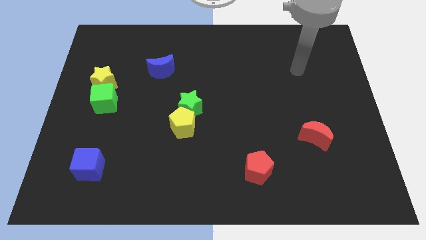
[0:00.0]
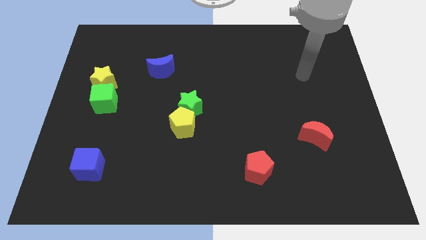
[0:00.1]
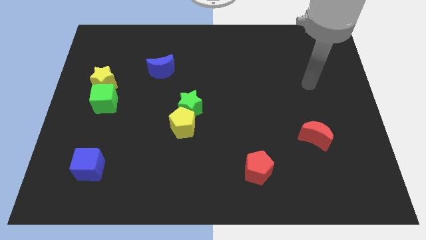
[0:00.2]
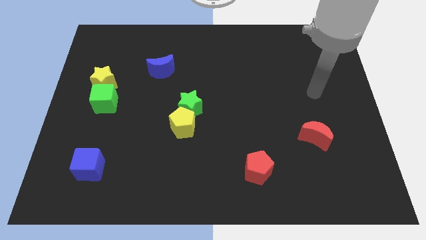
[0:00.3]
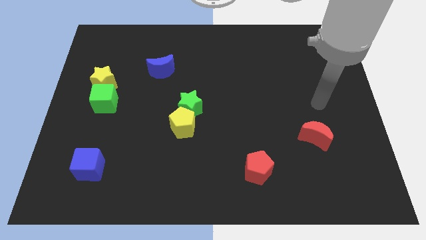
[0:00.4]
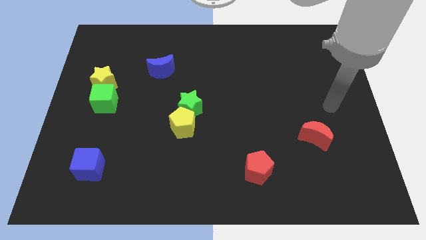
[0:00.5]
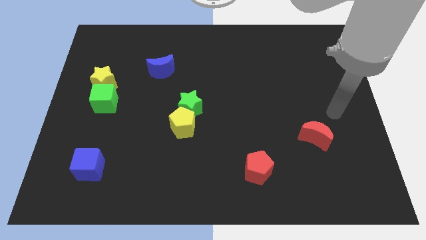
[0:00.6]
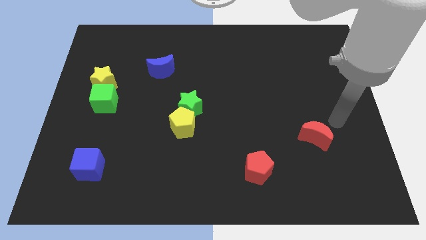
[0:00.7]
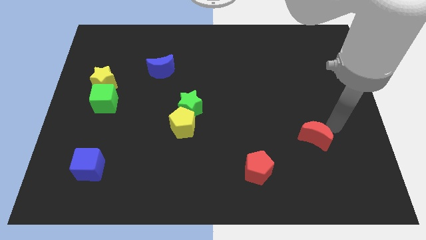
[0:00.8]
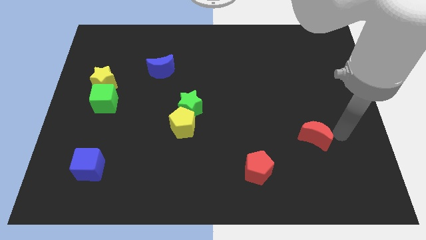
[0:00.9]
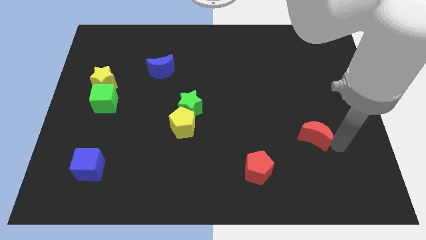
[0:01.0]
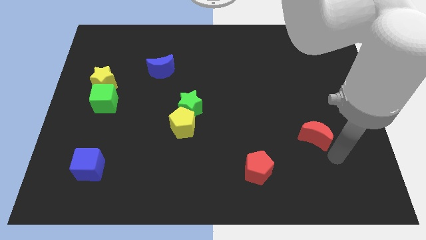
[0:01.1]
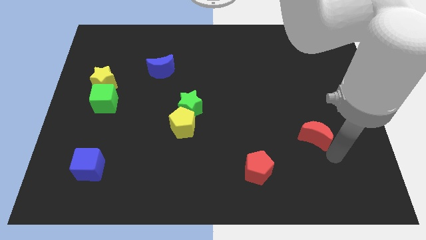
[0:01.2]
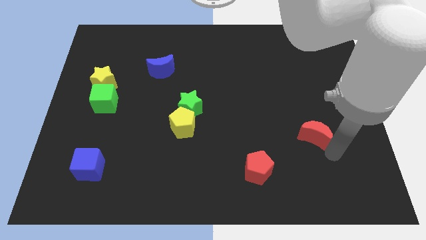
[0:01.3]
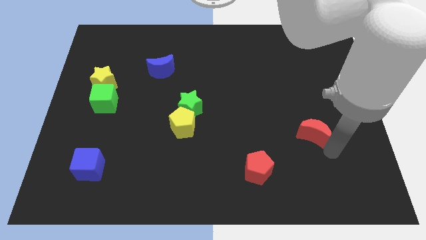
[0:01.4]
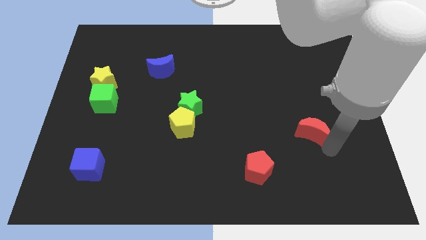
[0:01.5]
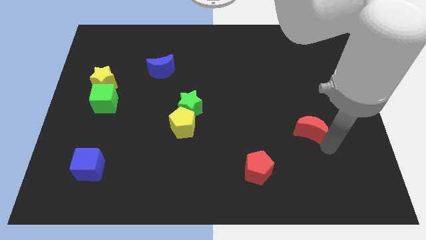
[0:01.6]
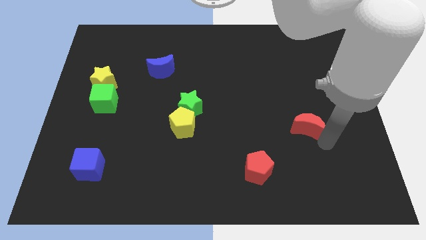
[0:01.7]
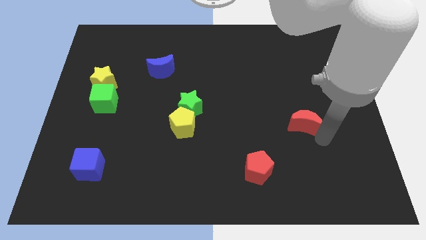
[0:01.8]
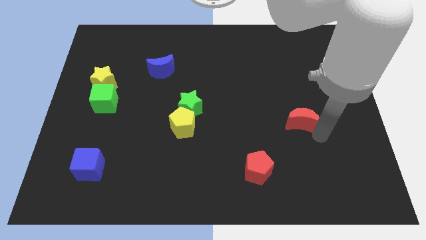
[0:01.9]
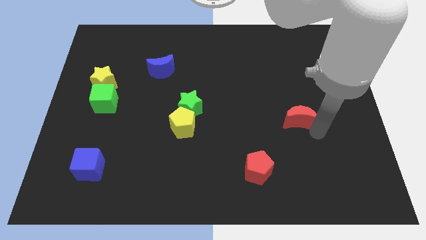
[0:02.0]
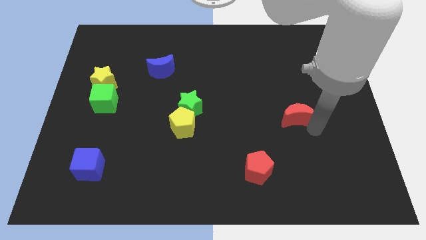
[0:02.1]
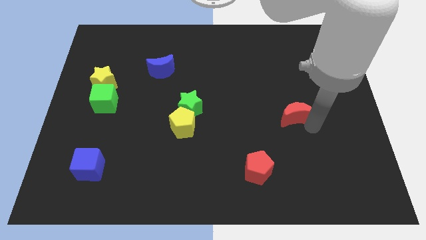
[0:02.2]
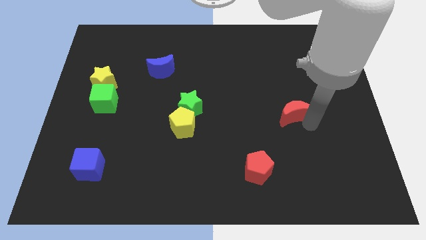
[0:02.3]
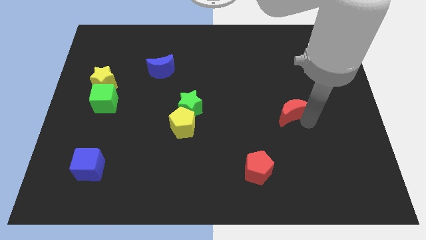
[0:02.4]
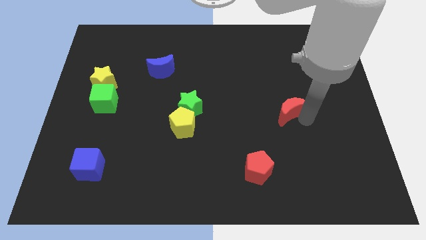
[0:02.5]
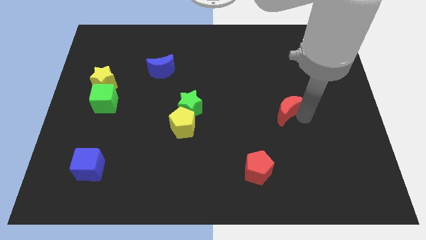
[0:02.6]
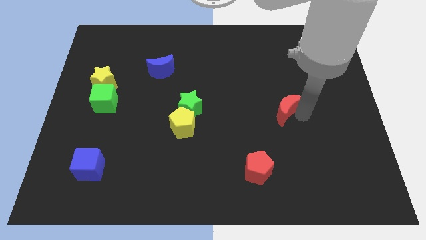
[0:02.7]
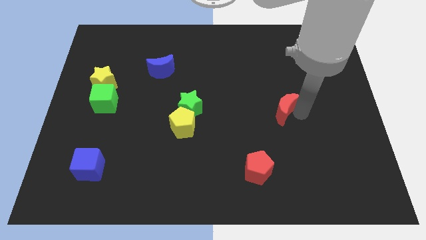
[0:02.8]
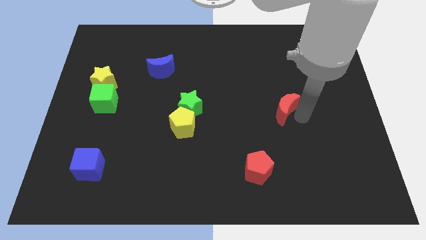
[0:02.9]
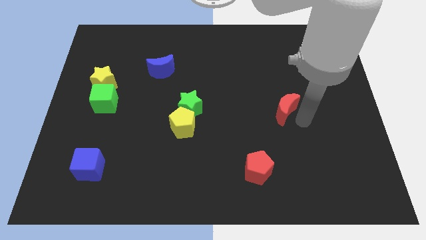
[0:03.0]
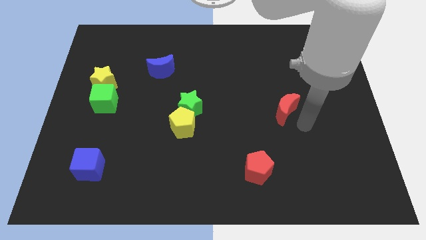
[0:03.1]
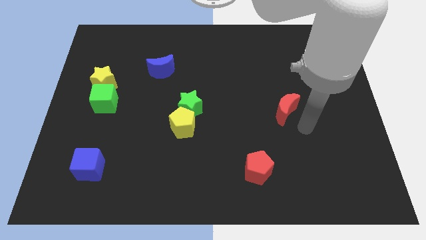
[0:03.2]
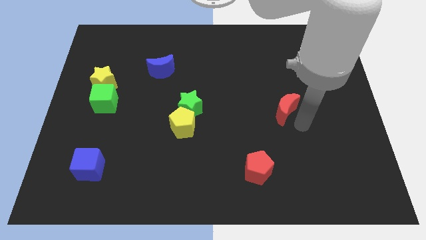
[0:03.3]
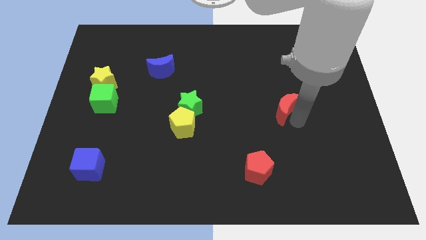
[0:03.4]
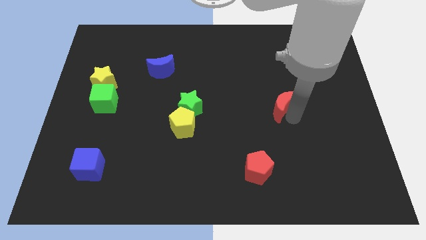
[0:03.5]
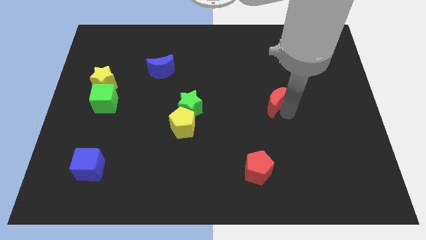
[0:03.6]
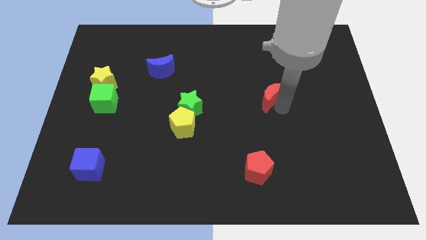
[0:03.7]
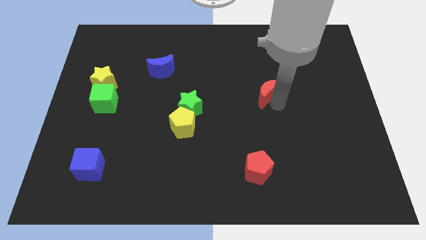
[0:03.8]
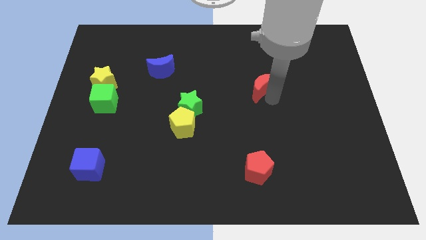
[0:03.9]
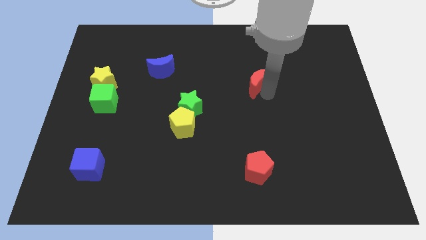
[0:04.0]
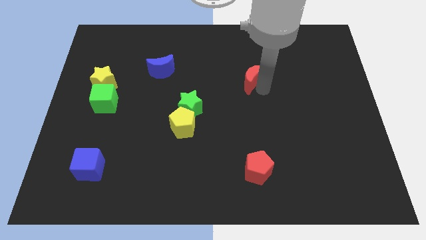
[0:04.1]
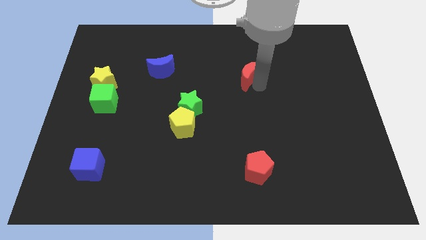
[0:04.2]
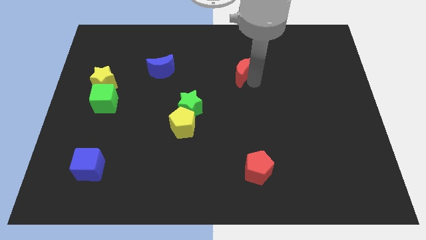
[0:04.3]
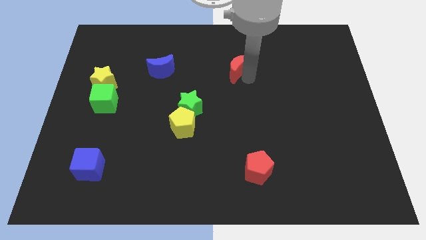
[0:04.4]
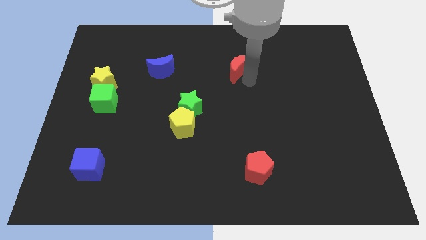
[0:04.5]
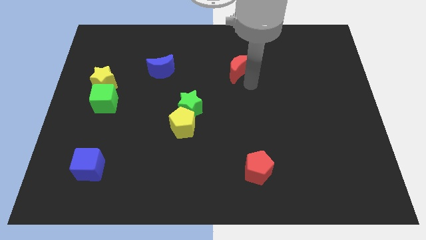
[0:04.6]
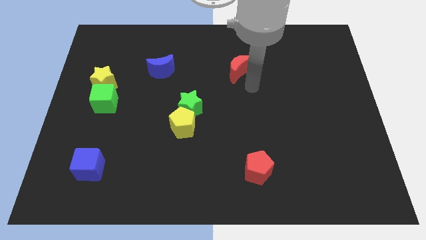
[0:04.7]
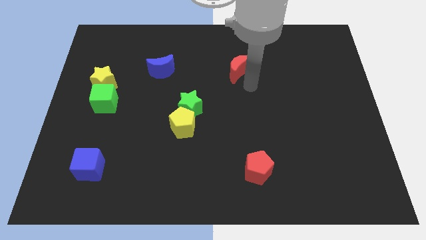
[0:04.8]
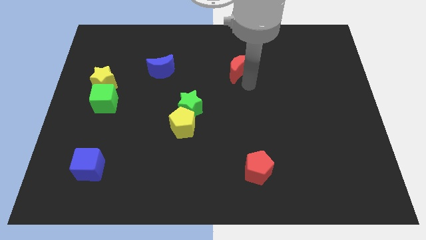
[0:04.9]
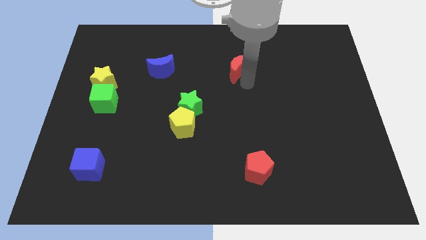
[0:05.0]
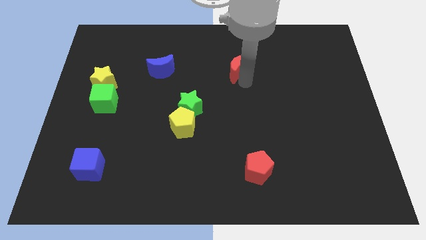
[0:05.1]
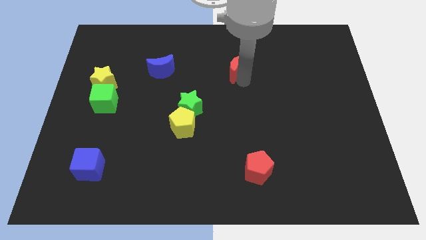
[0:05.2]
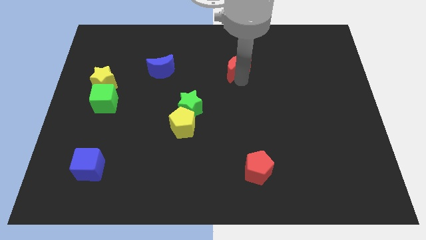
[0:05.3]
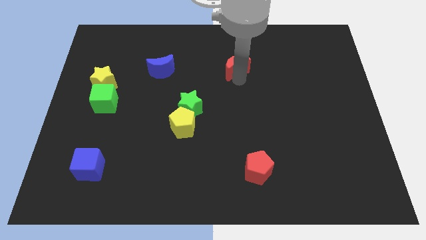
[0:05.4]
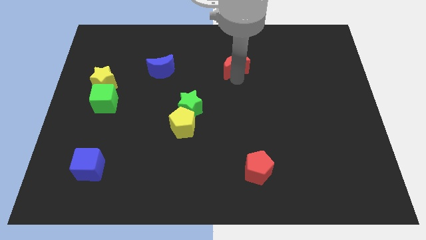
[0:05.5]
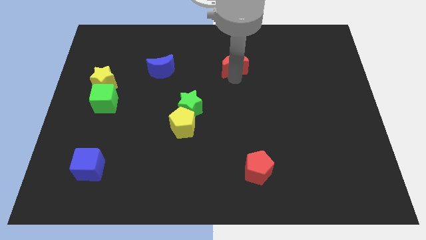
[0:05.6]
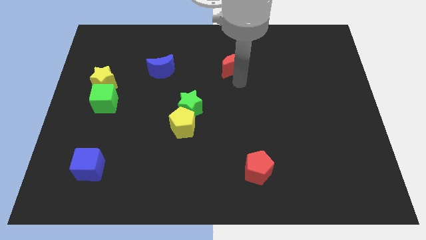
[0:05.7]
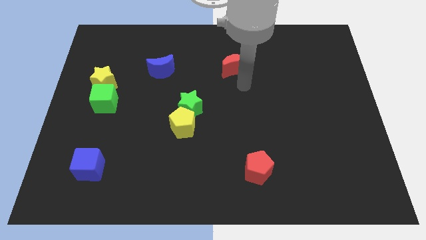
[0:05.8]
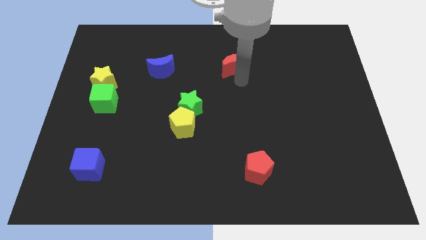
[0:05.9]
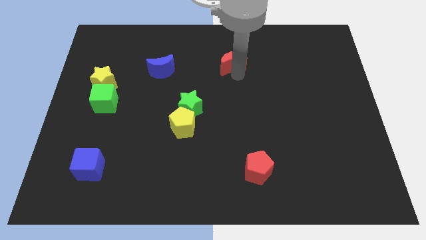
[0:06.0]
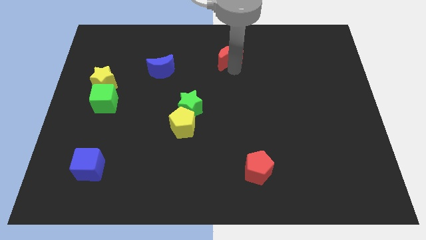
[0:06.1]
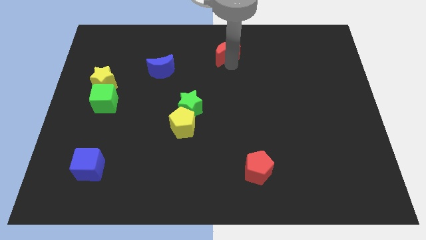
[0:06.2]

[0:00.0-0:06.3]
move the red moon to the top side
